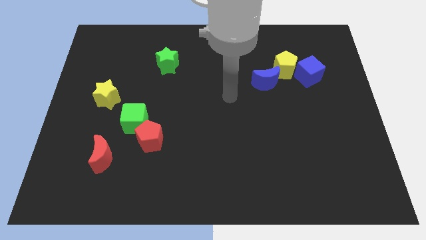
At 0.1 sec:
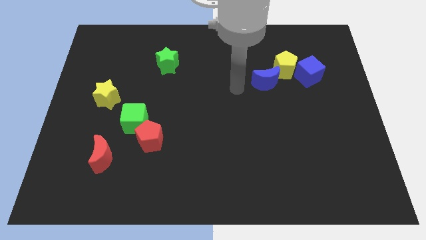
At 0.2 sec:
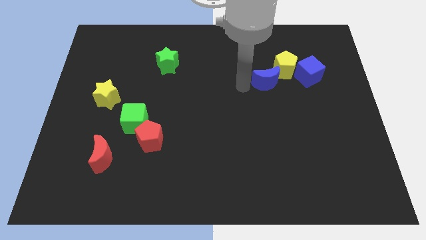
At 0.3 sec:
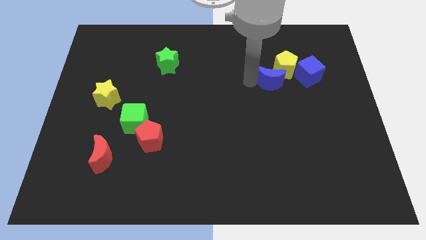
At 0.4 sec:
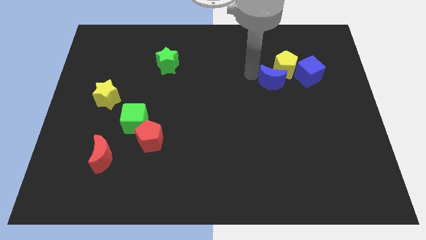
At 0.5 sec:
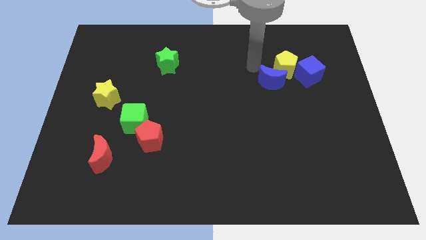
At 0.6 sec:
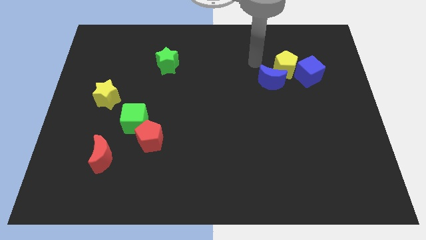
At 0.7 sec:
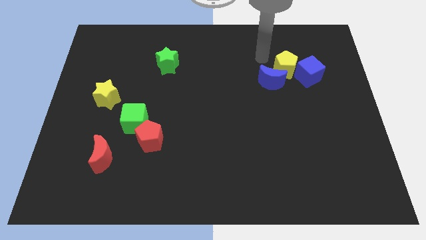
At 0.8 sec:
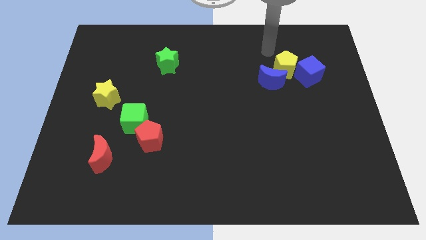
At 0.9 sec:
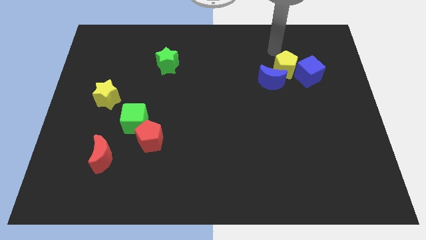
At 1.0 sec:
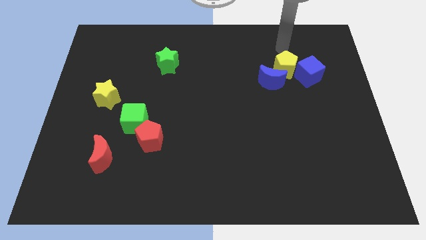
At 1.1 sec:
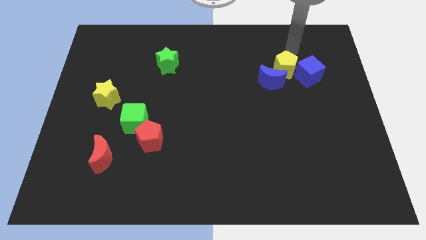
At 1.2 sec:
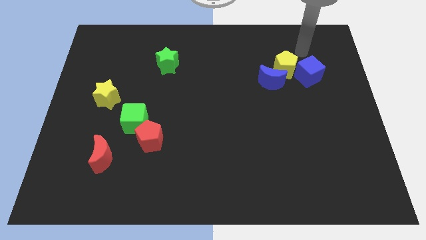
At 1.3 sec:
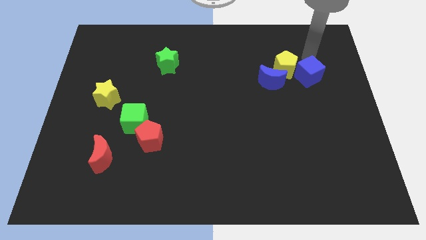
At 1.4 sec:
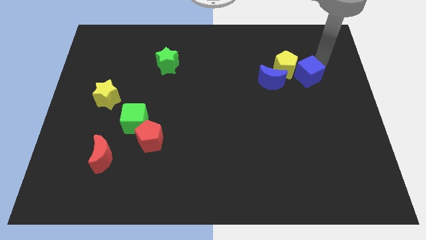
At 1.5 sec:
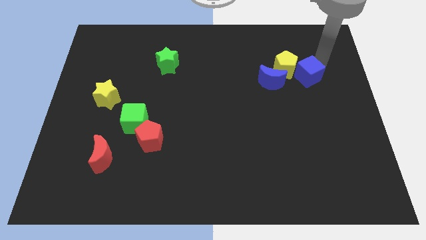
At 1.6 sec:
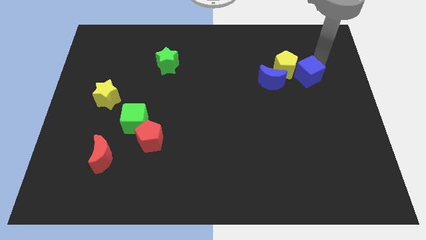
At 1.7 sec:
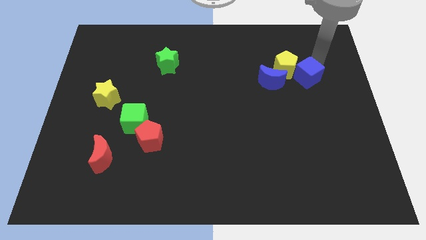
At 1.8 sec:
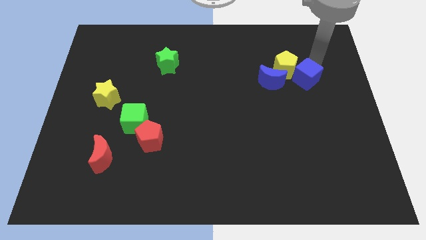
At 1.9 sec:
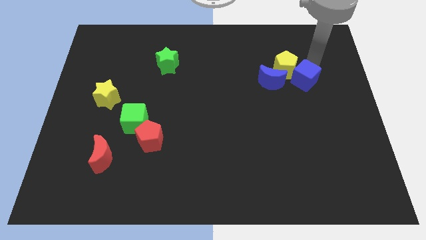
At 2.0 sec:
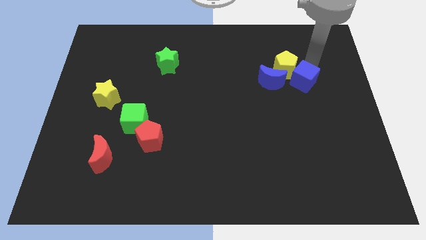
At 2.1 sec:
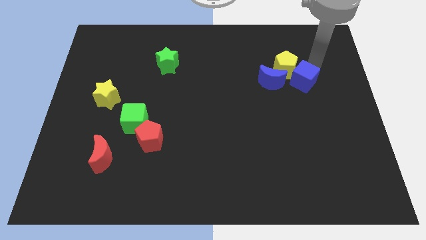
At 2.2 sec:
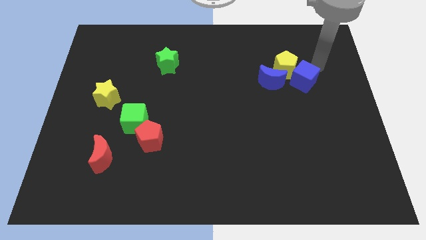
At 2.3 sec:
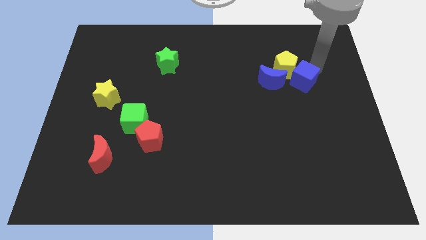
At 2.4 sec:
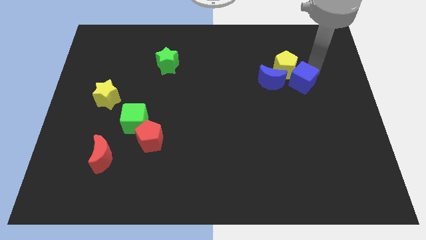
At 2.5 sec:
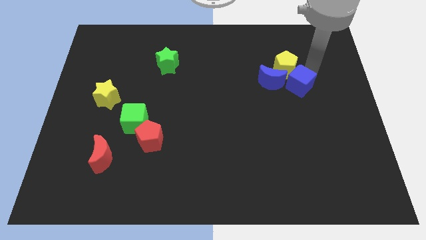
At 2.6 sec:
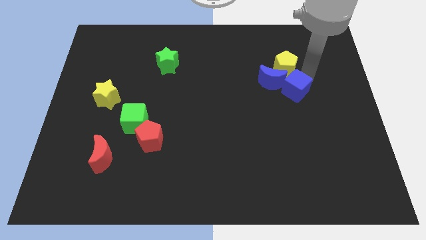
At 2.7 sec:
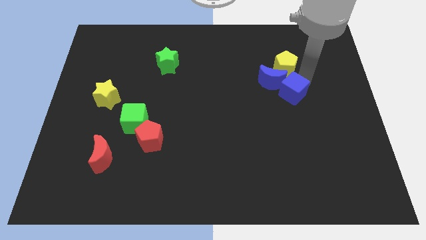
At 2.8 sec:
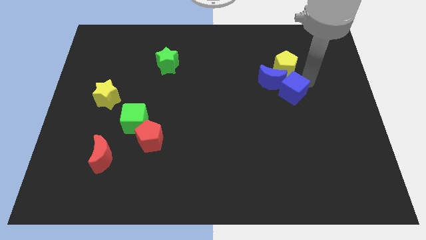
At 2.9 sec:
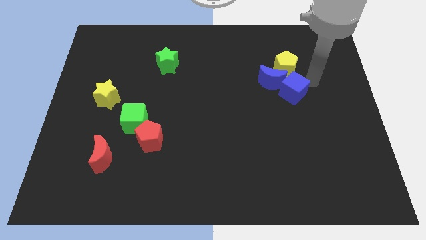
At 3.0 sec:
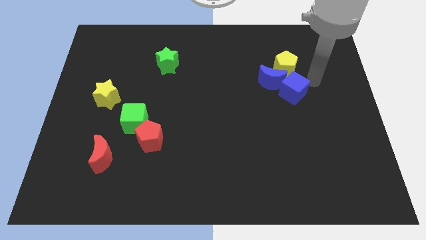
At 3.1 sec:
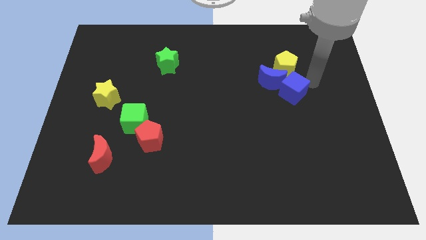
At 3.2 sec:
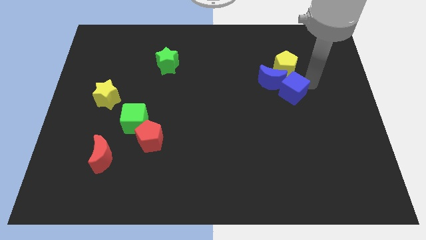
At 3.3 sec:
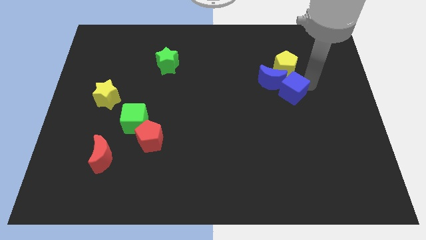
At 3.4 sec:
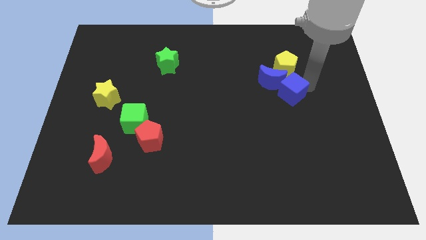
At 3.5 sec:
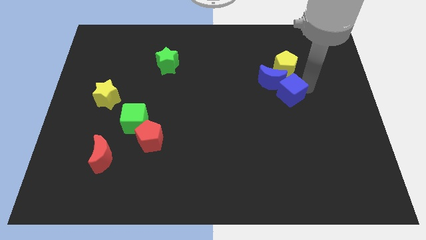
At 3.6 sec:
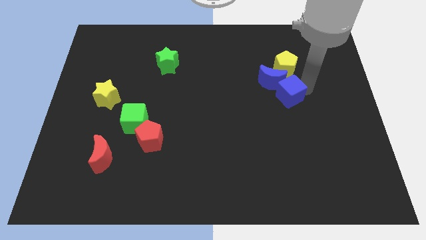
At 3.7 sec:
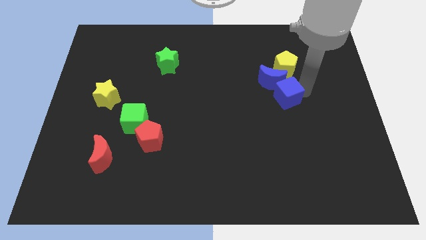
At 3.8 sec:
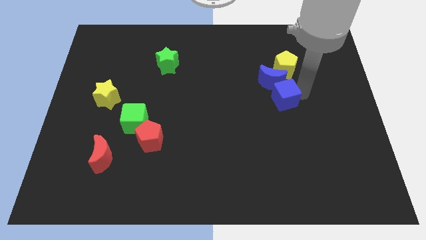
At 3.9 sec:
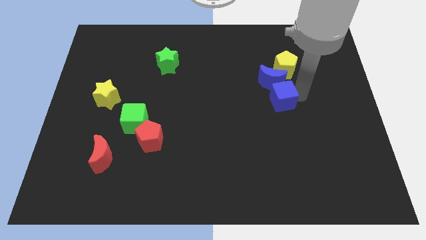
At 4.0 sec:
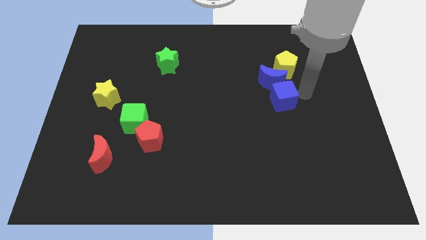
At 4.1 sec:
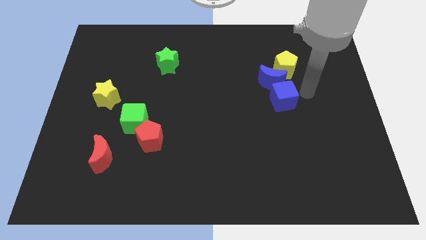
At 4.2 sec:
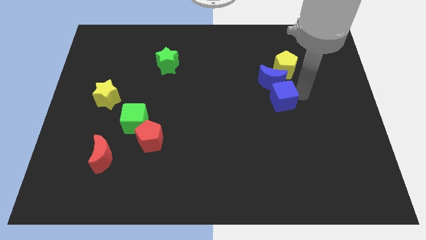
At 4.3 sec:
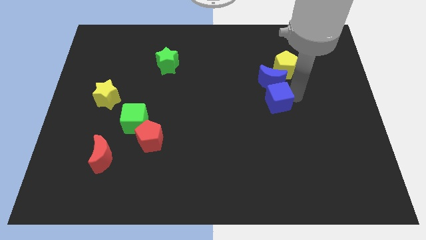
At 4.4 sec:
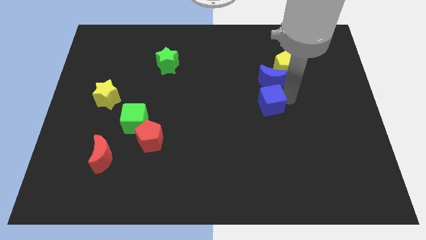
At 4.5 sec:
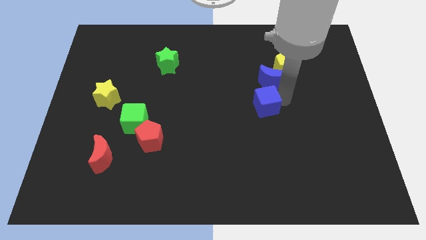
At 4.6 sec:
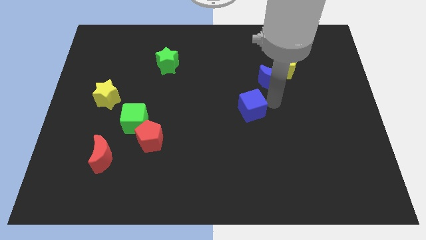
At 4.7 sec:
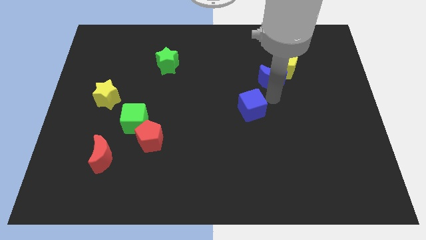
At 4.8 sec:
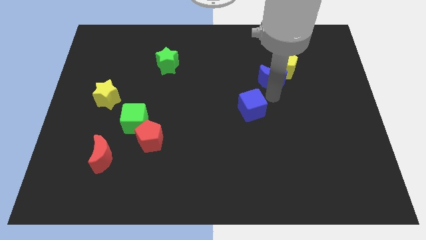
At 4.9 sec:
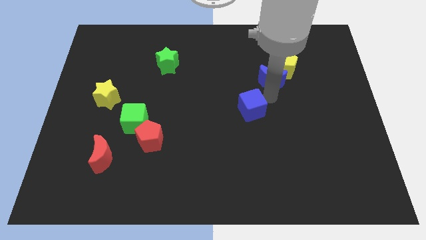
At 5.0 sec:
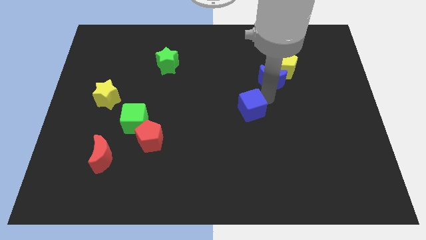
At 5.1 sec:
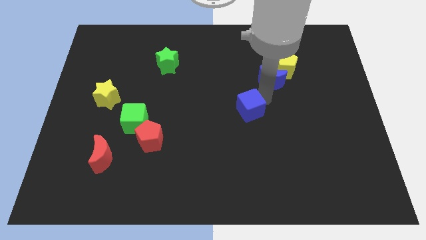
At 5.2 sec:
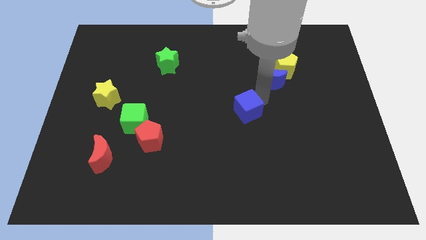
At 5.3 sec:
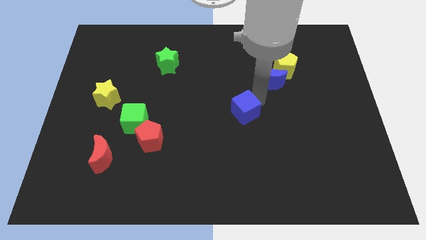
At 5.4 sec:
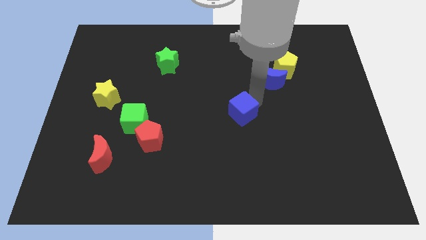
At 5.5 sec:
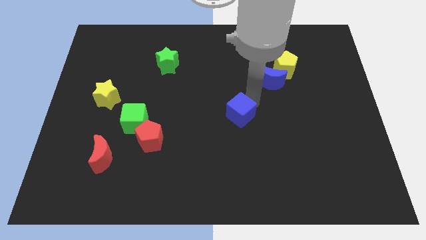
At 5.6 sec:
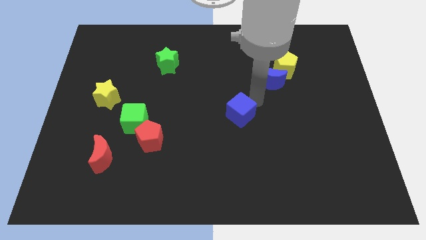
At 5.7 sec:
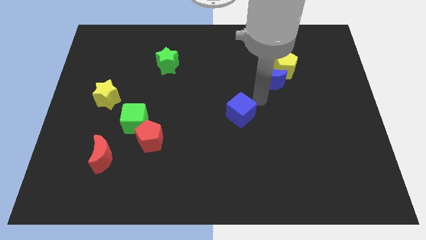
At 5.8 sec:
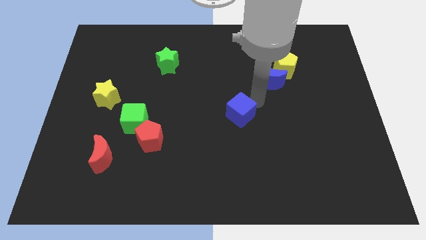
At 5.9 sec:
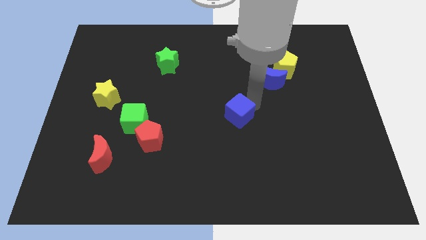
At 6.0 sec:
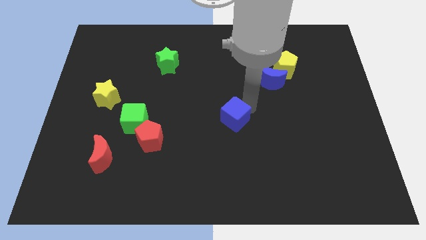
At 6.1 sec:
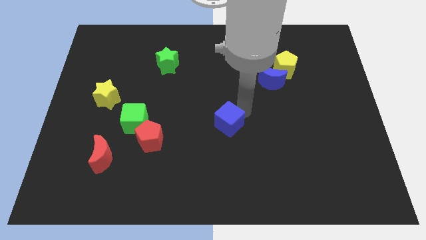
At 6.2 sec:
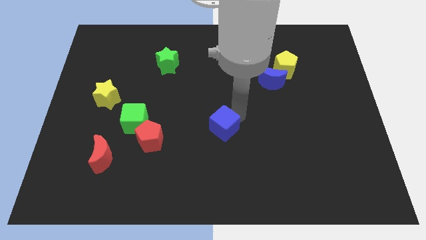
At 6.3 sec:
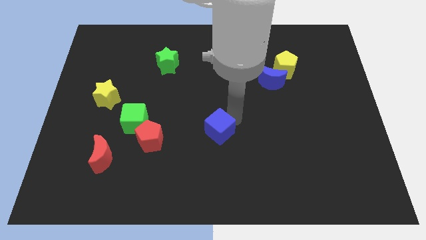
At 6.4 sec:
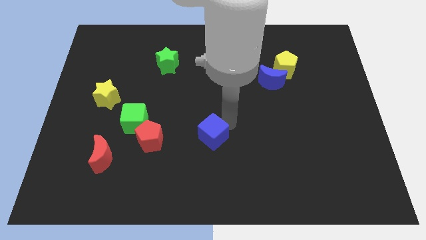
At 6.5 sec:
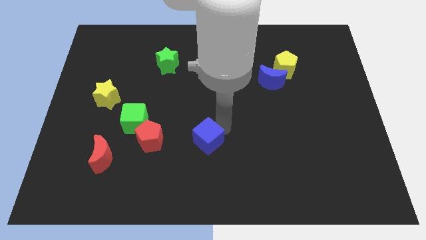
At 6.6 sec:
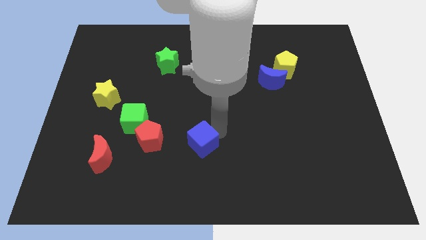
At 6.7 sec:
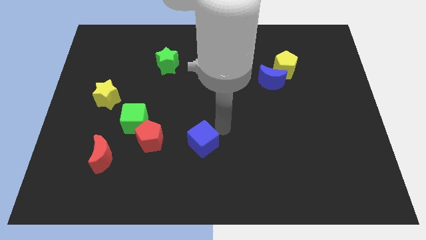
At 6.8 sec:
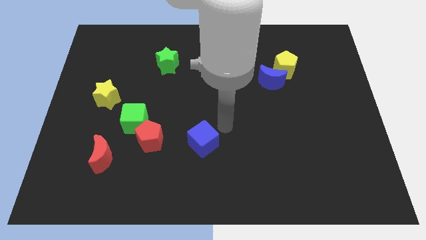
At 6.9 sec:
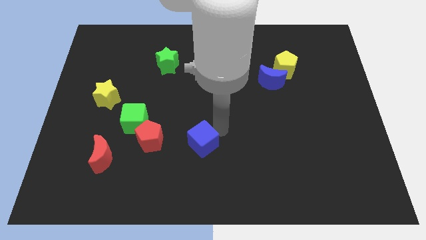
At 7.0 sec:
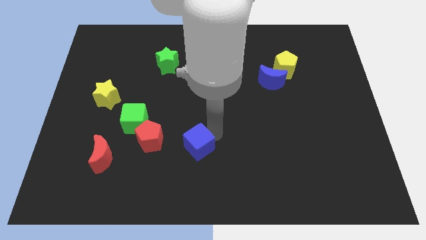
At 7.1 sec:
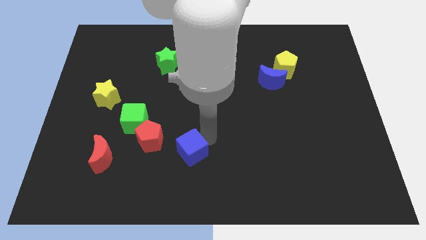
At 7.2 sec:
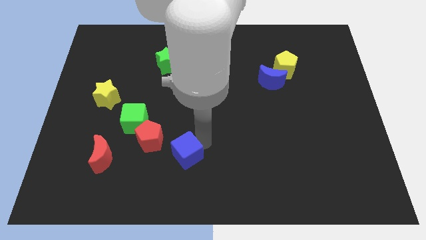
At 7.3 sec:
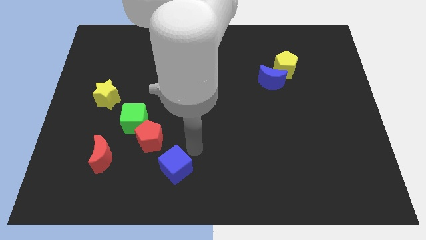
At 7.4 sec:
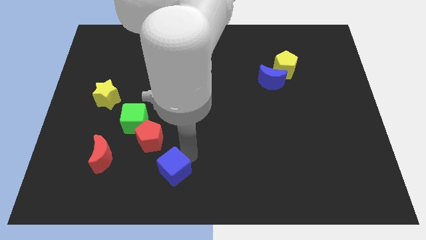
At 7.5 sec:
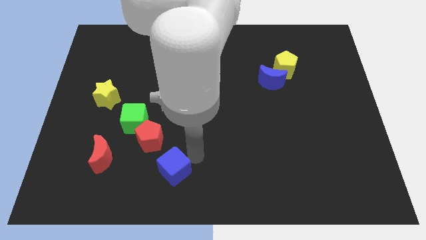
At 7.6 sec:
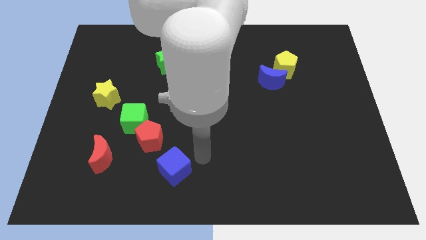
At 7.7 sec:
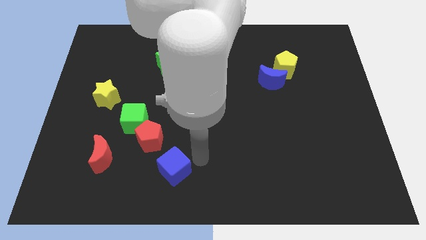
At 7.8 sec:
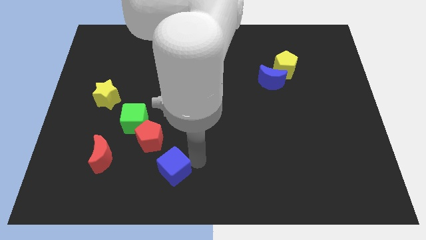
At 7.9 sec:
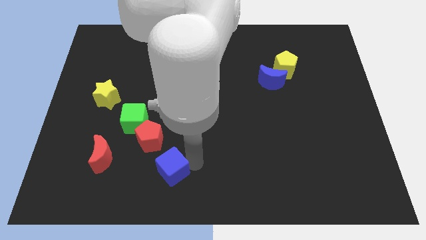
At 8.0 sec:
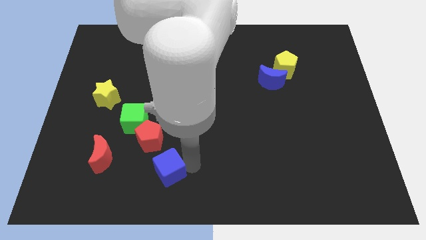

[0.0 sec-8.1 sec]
push the blue cube to the bottom of the red pentagon
